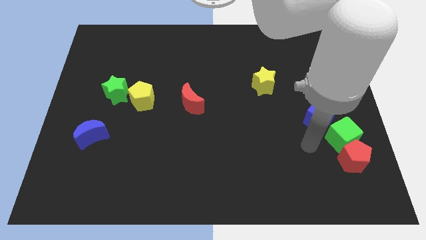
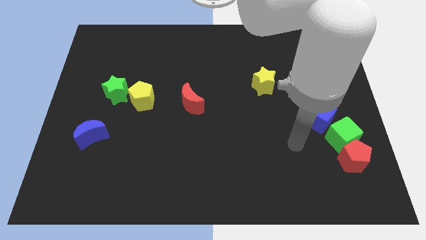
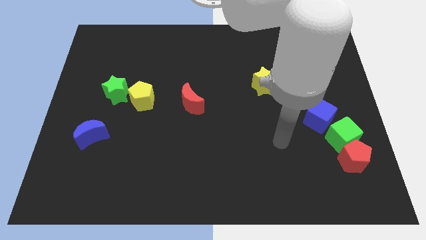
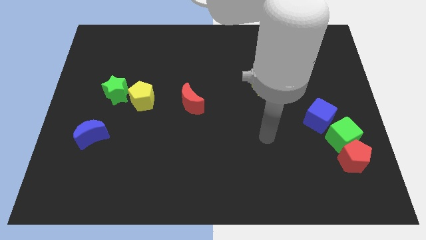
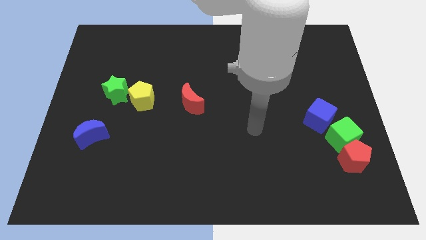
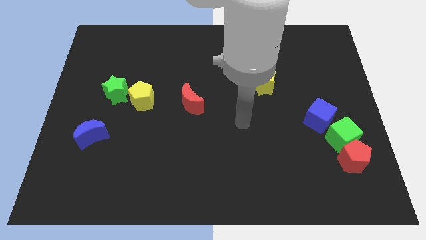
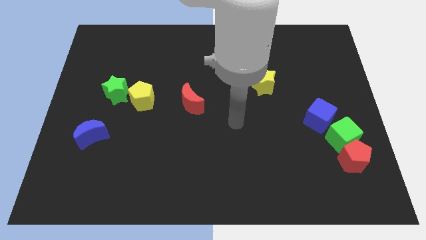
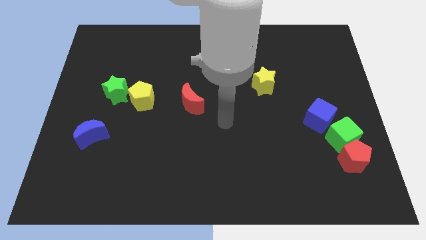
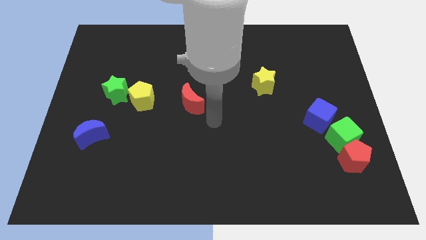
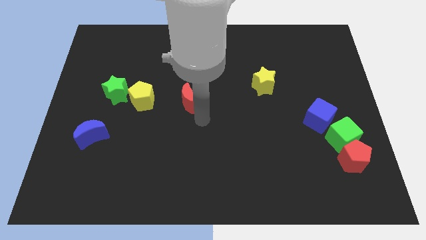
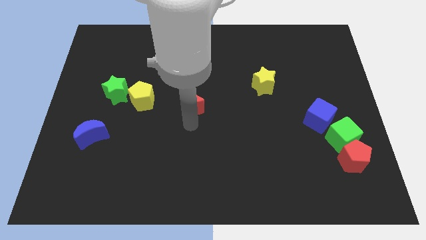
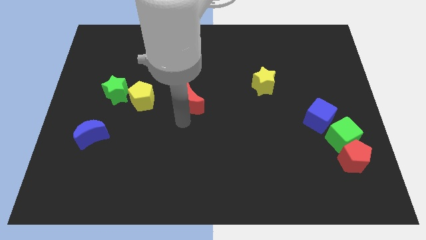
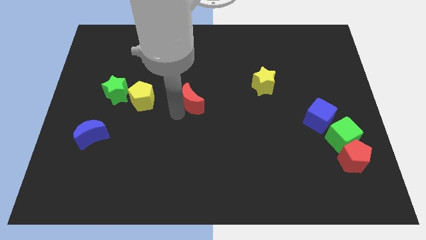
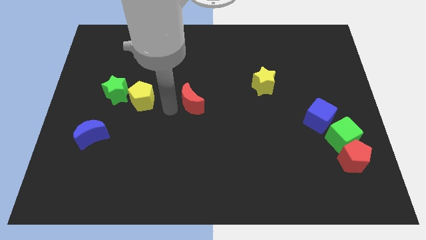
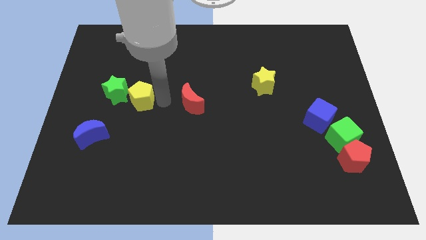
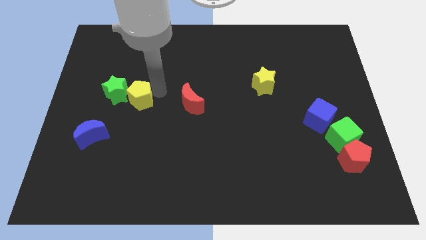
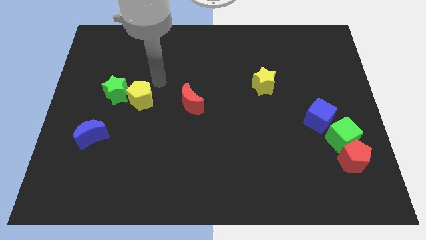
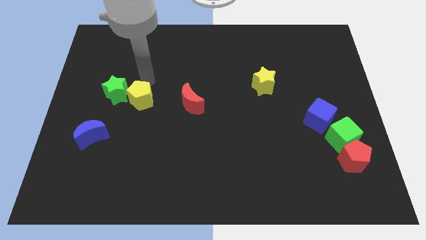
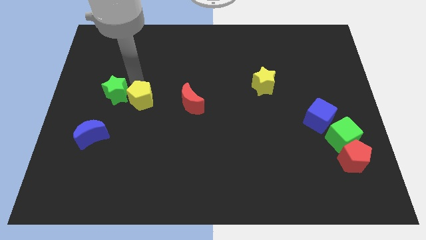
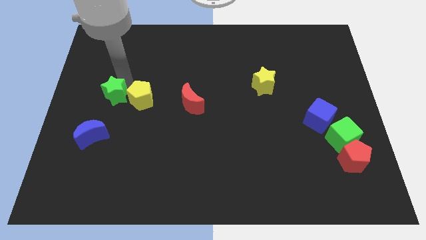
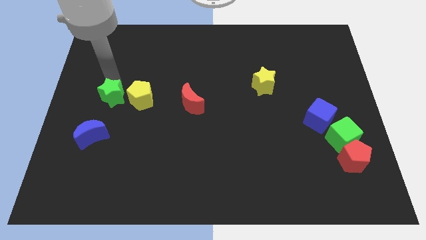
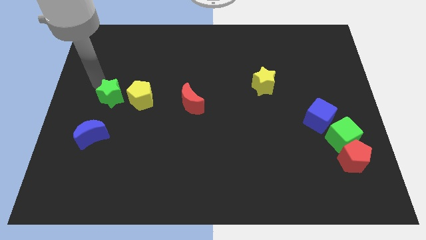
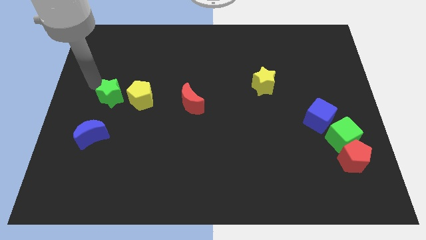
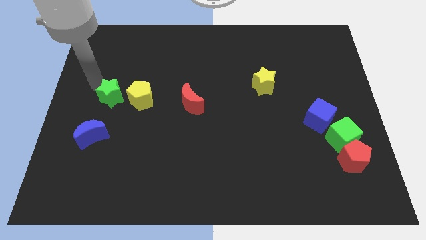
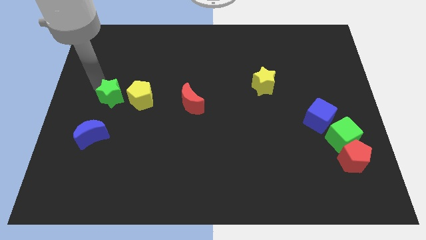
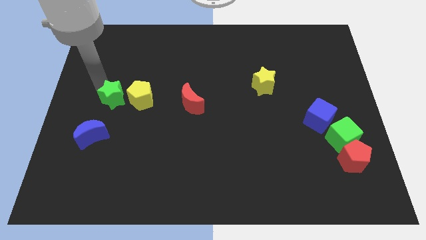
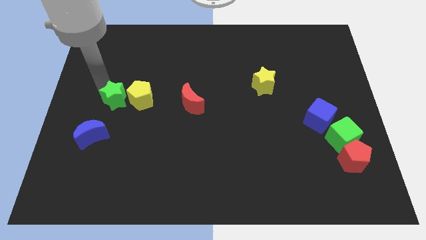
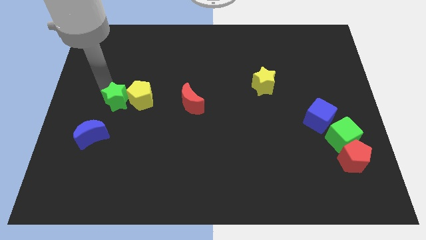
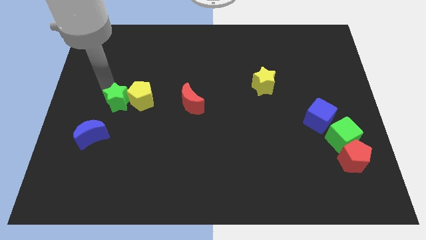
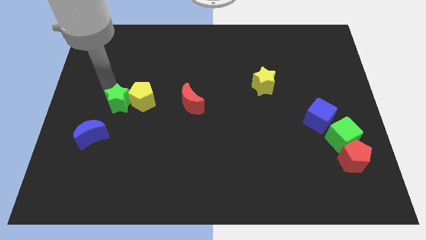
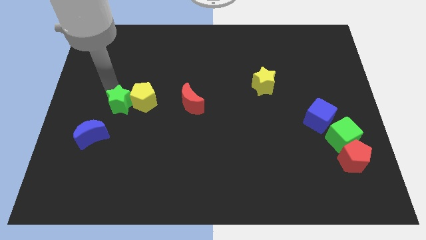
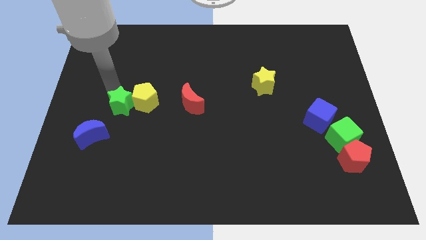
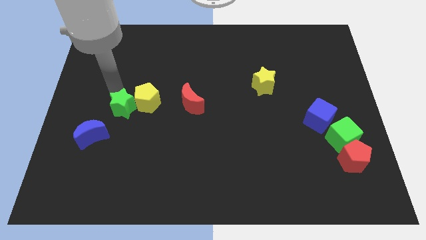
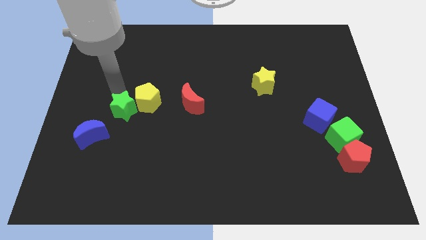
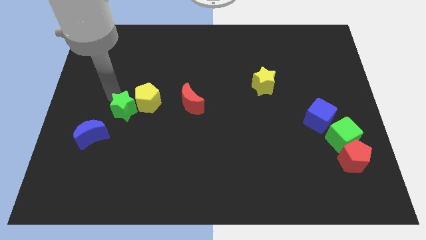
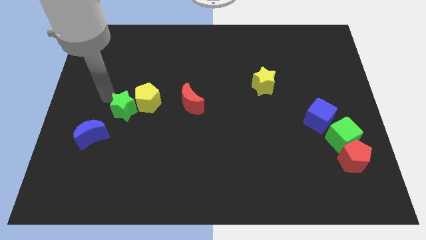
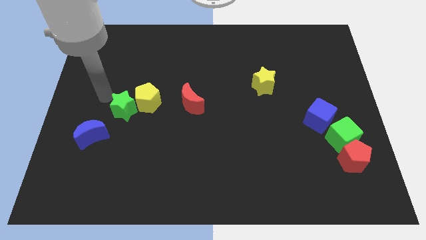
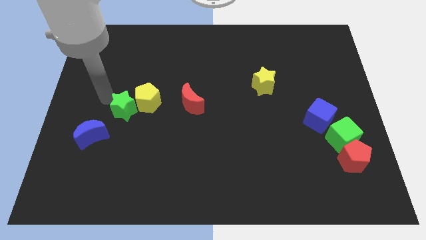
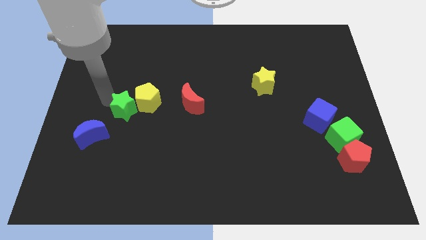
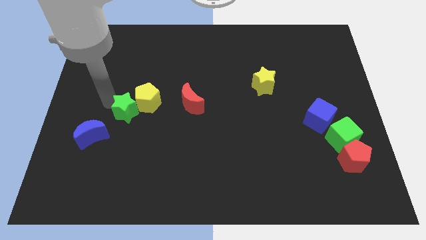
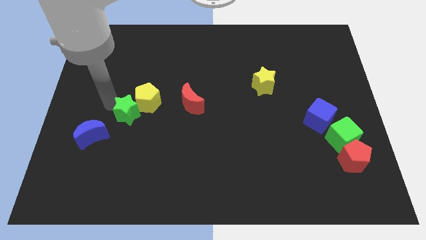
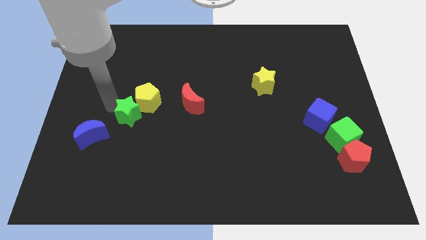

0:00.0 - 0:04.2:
slide the green star slightly diagonally down and to the right

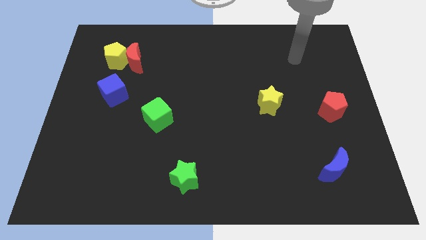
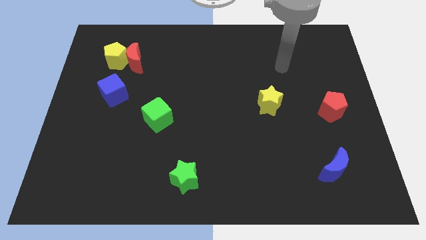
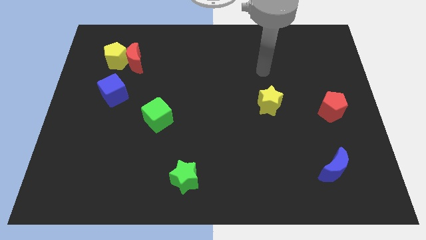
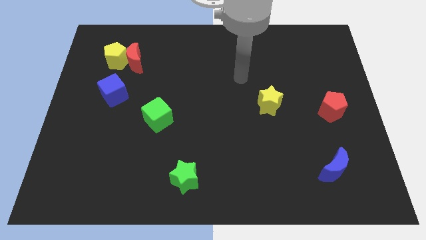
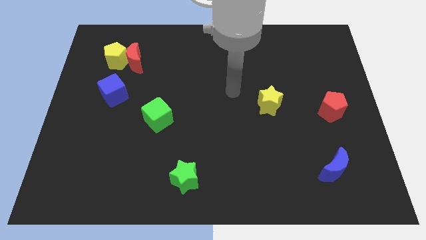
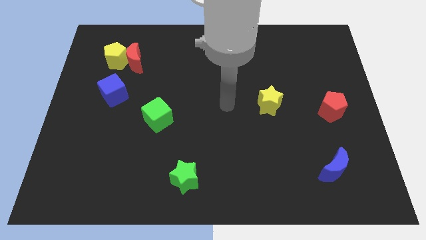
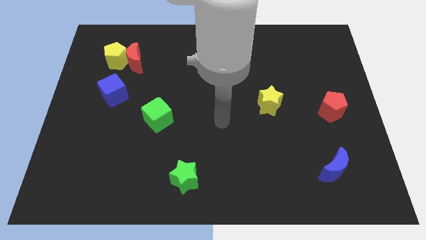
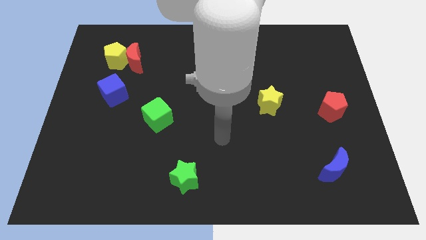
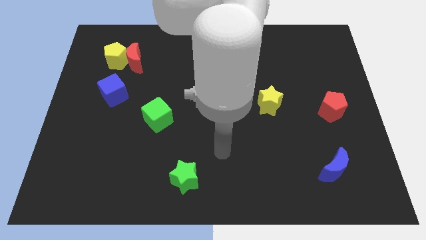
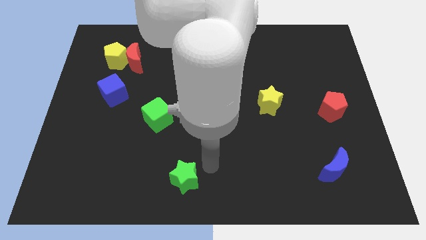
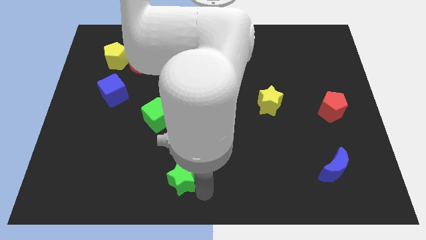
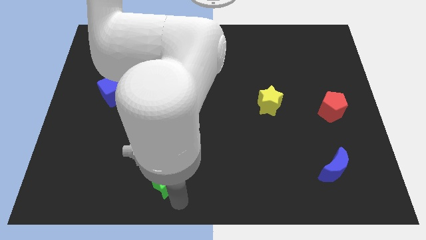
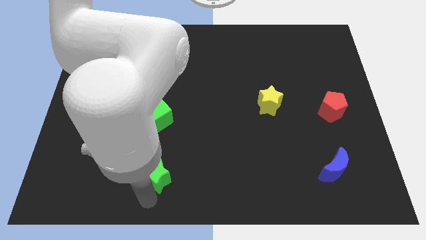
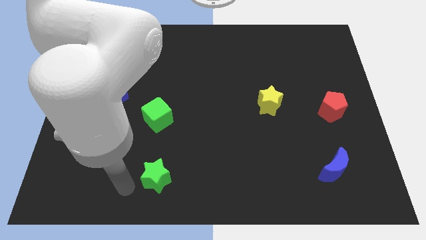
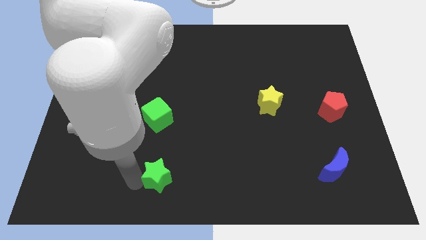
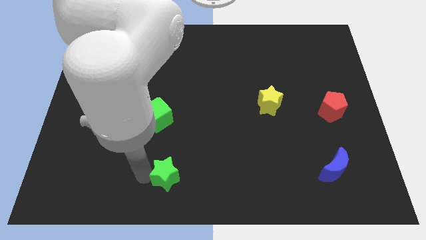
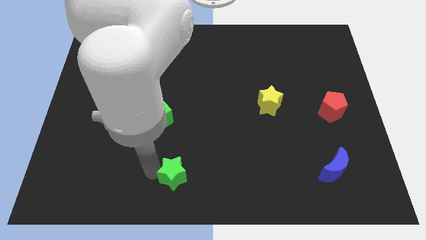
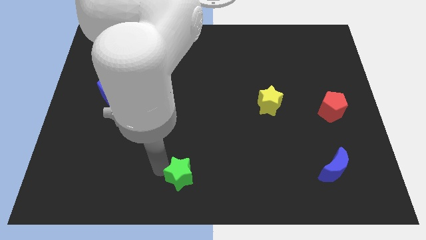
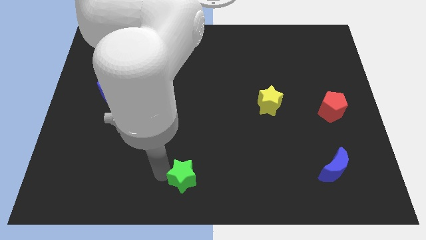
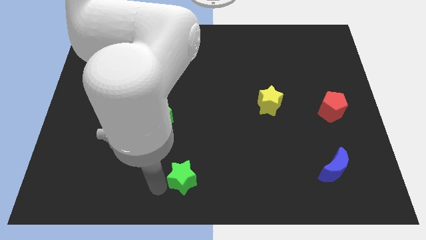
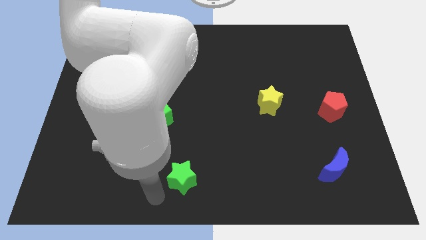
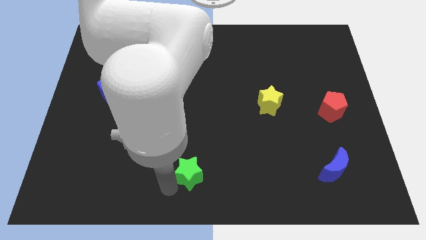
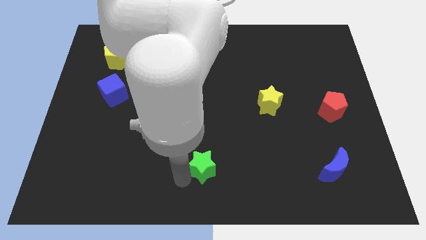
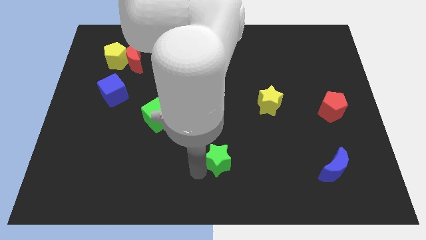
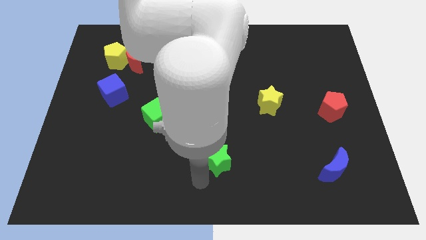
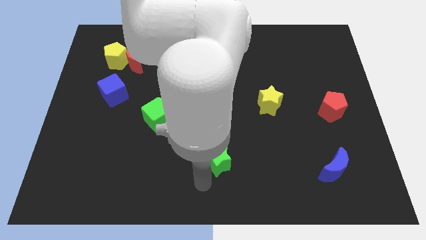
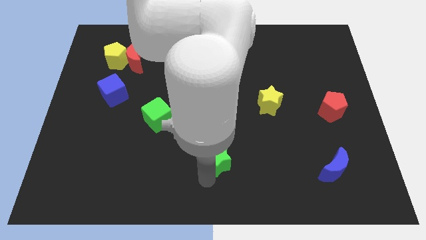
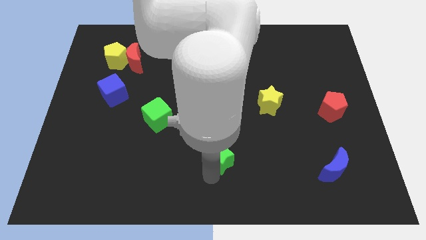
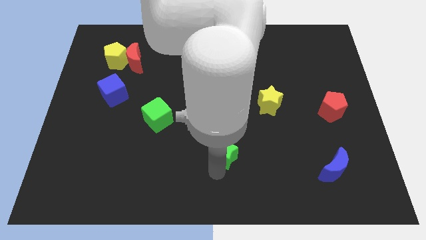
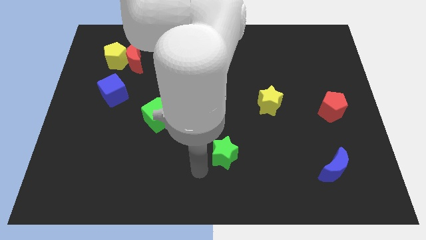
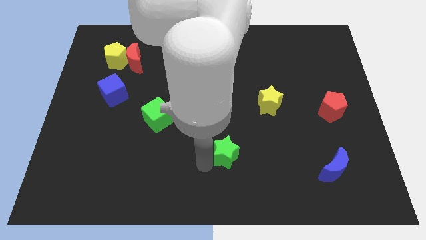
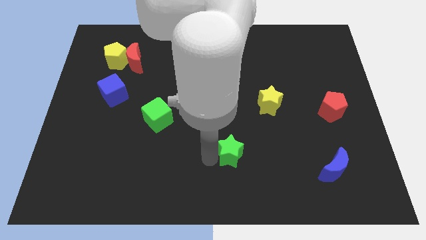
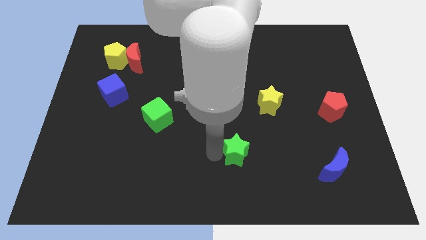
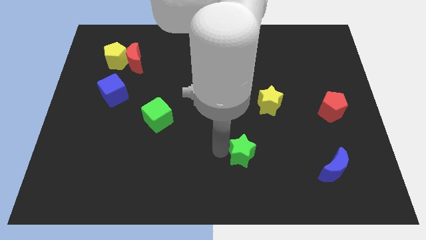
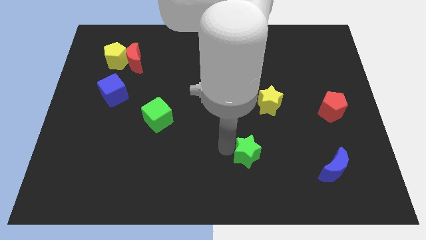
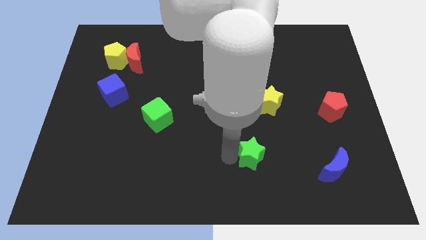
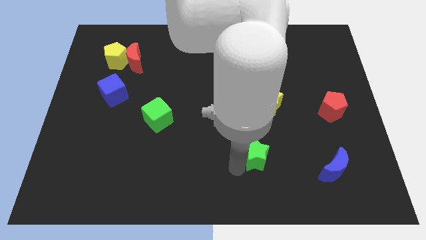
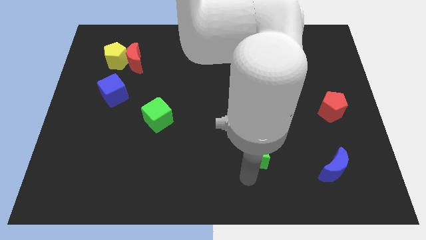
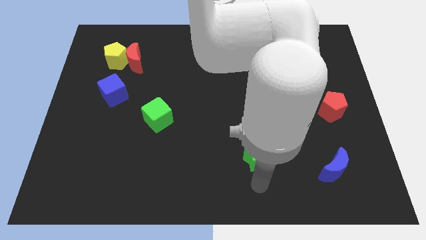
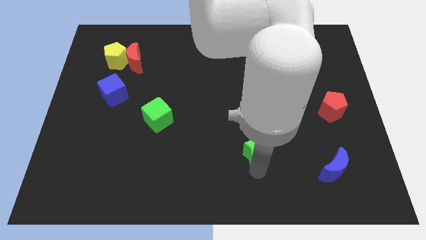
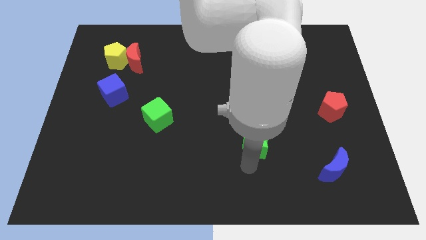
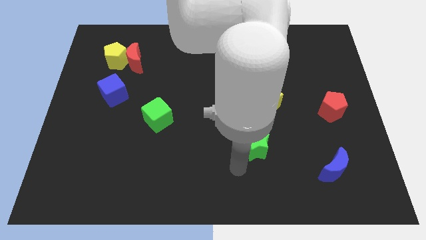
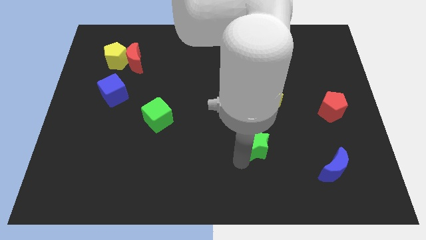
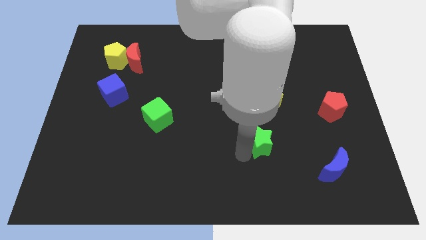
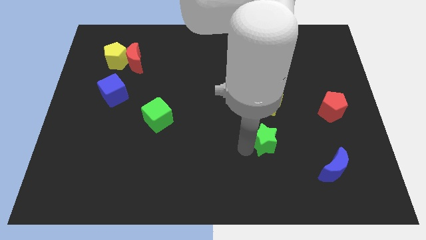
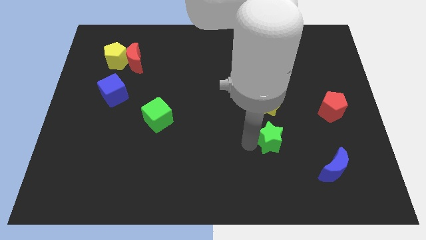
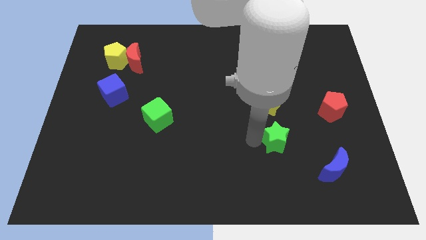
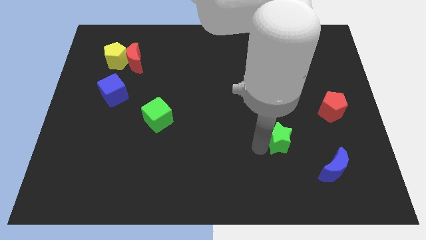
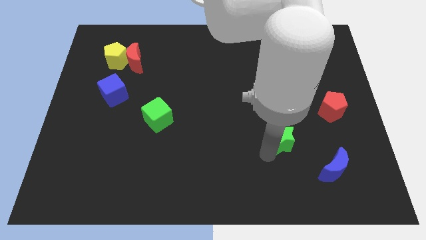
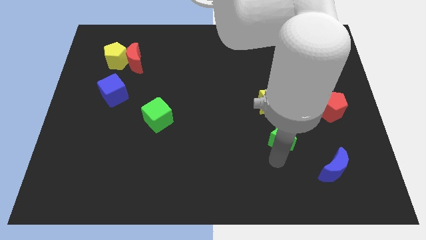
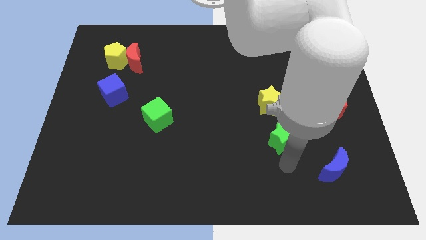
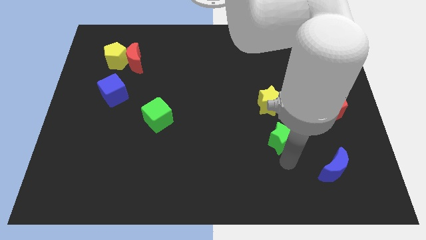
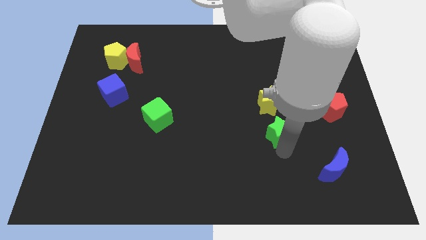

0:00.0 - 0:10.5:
push the green star diagonally up and to the right
